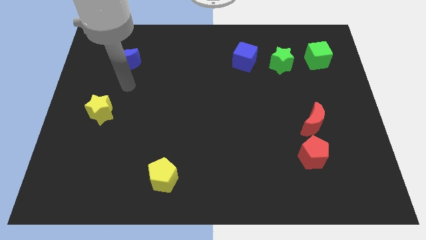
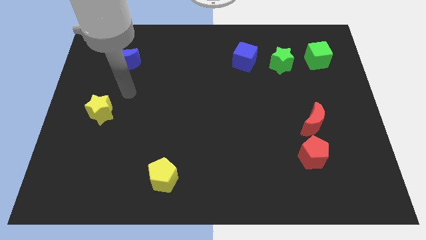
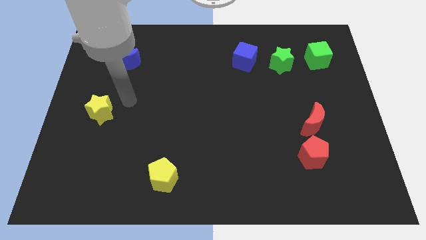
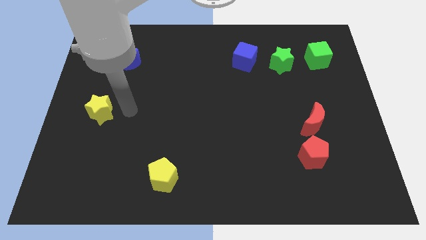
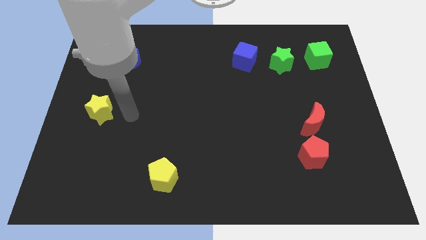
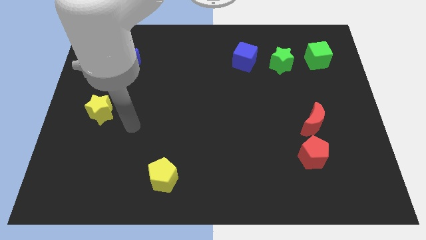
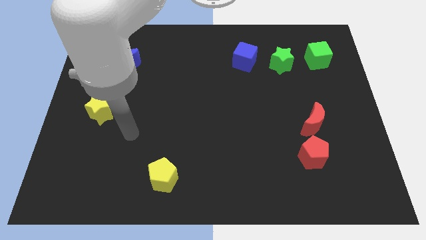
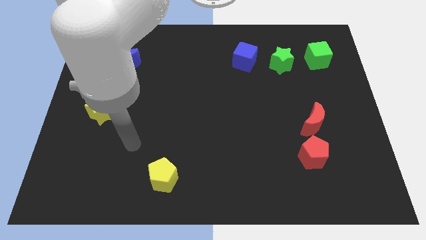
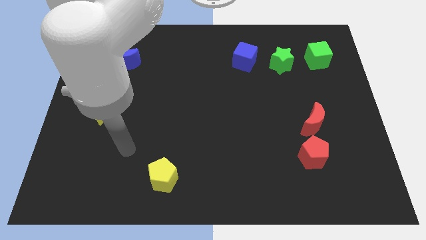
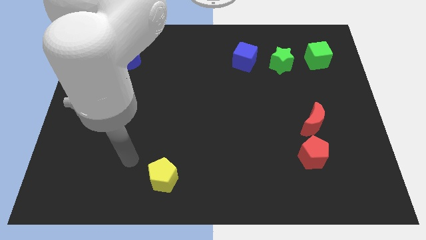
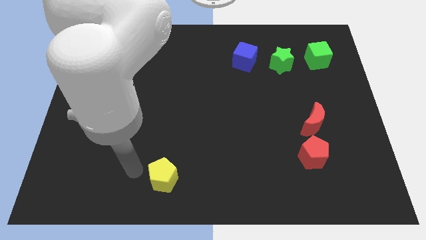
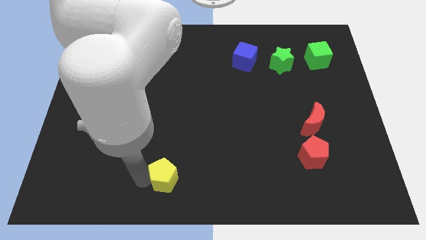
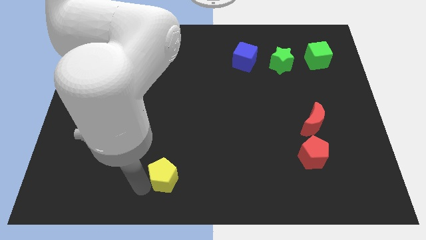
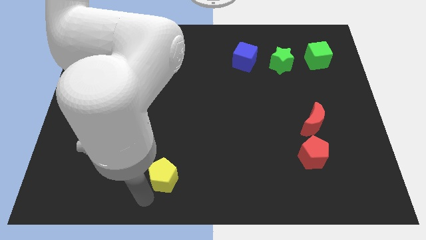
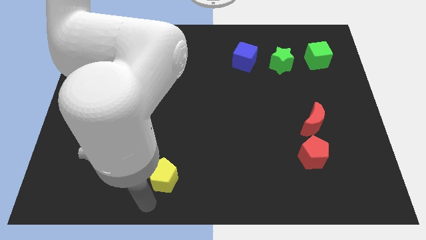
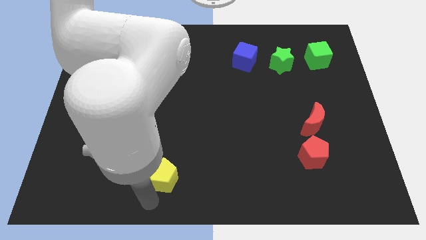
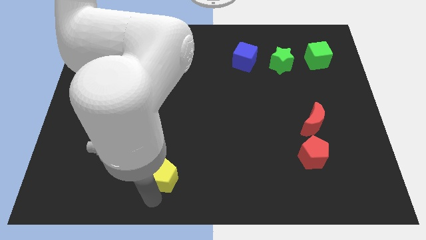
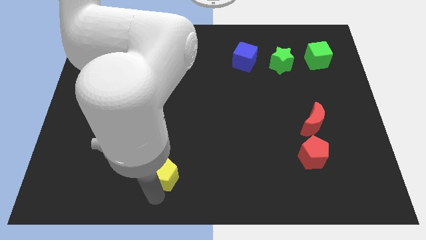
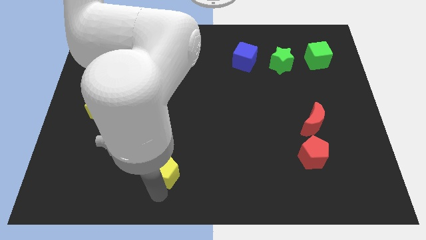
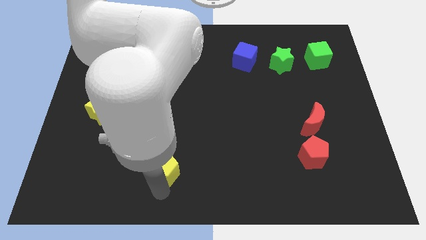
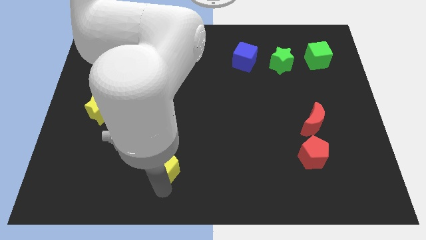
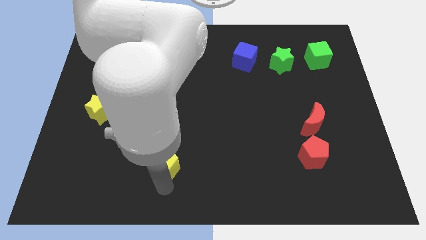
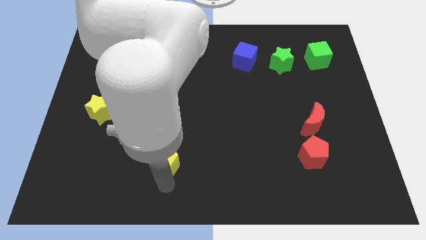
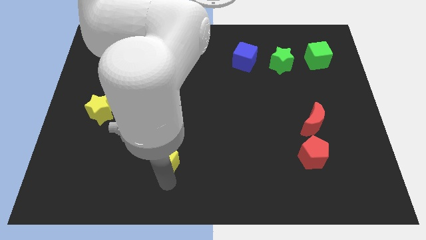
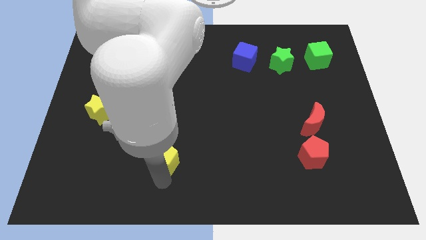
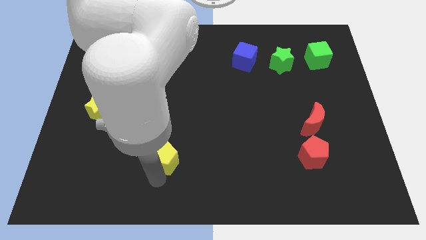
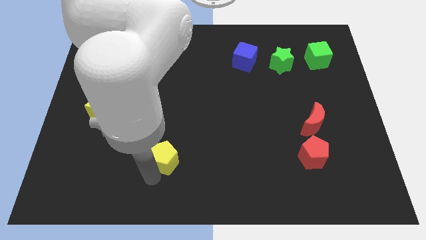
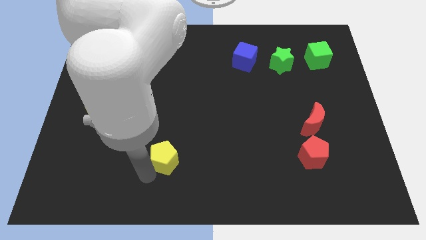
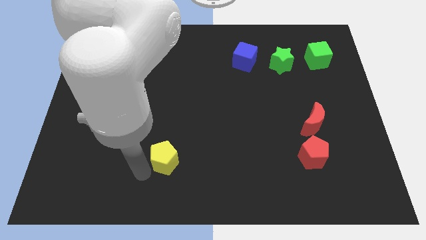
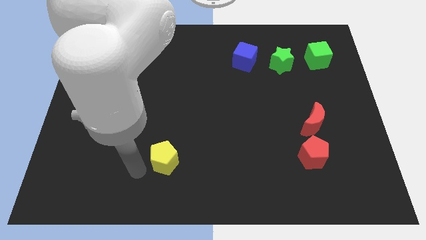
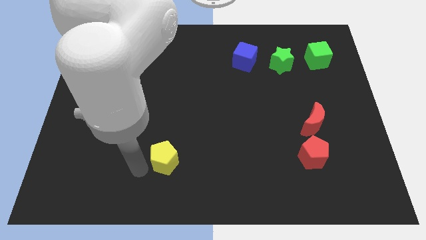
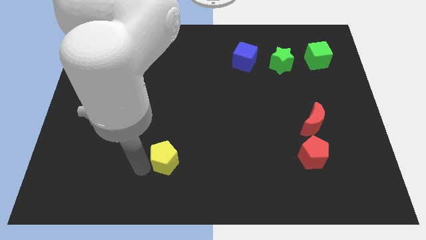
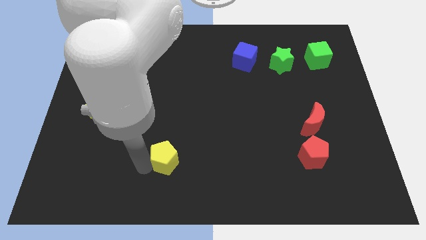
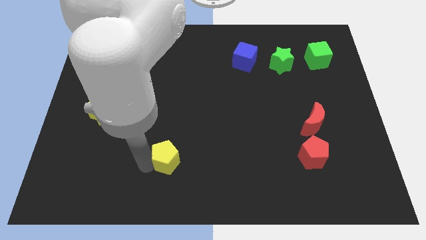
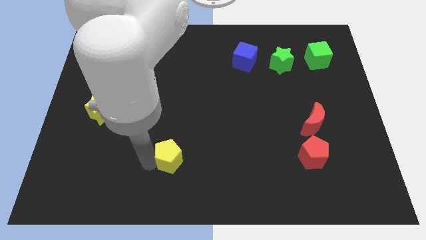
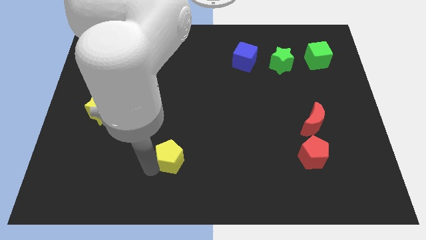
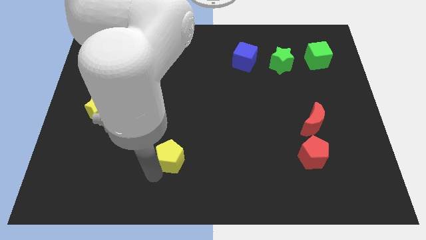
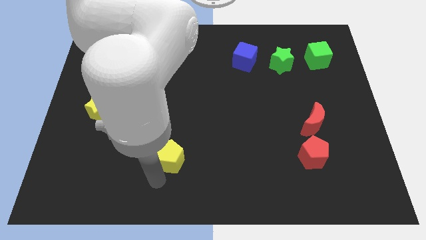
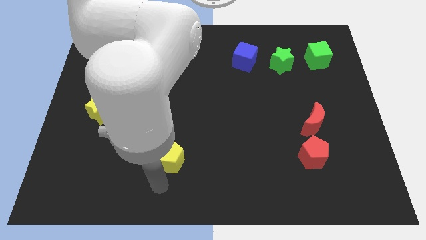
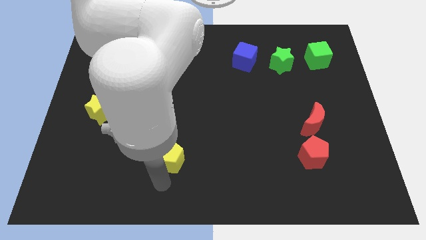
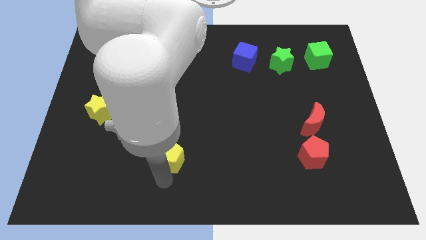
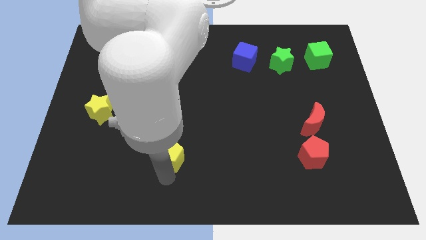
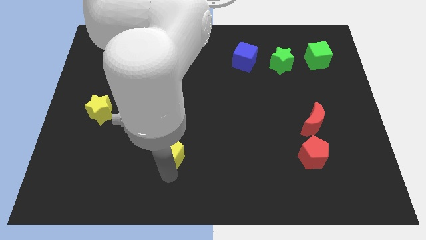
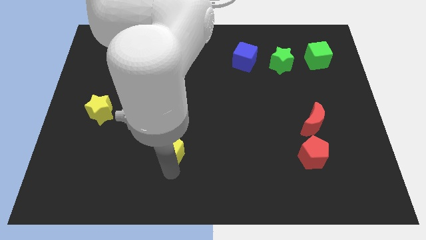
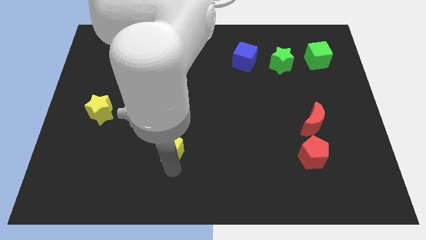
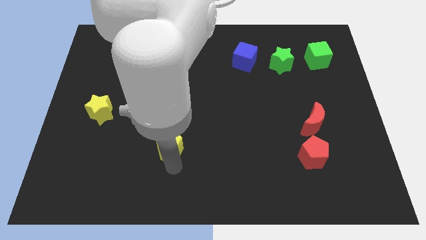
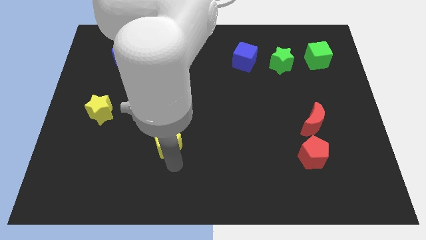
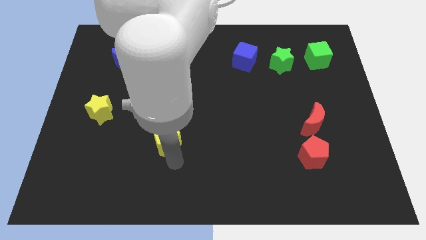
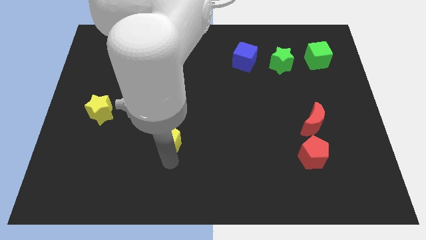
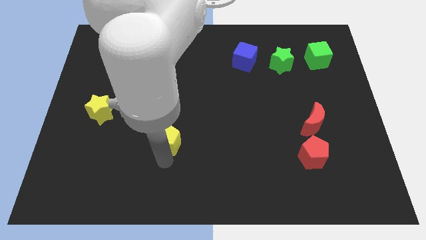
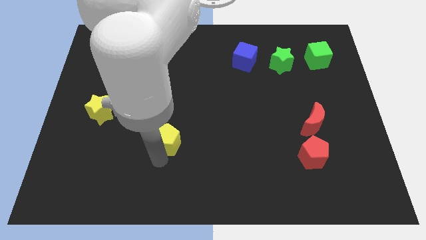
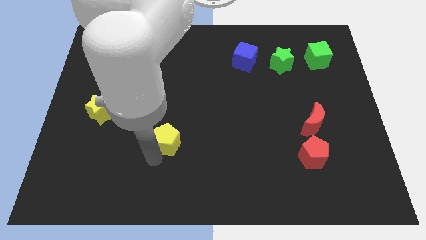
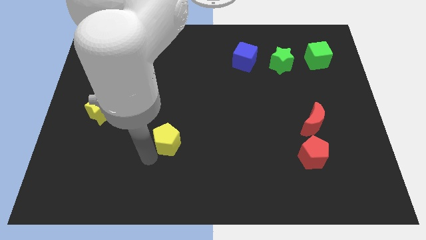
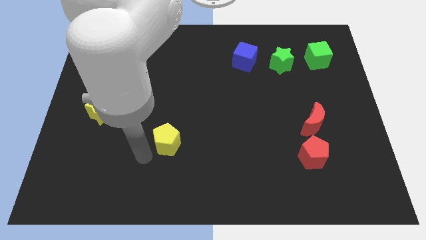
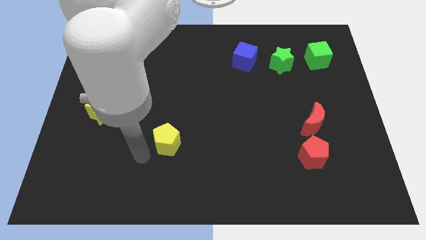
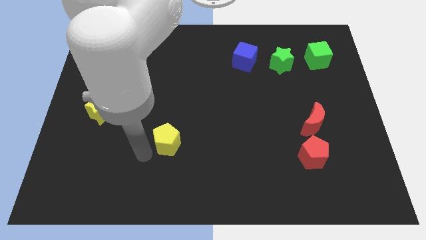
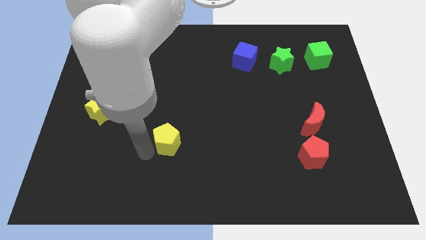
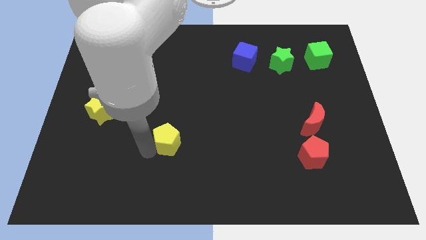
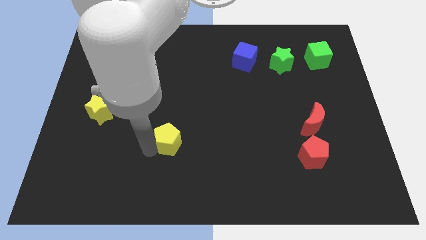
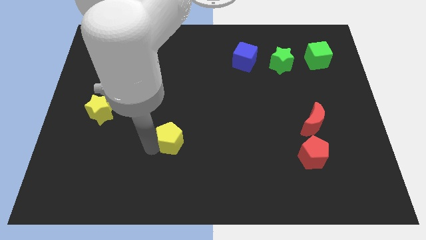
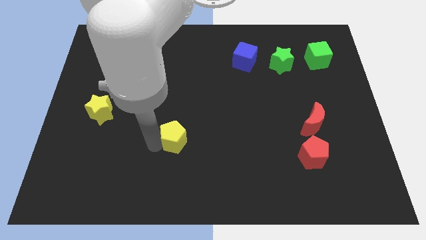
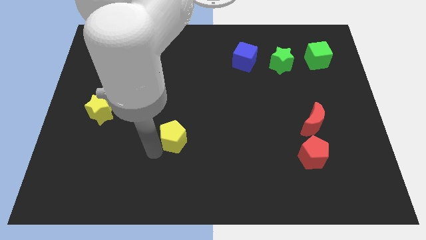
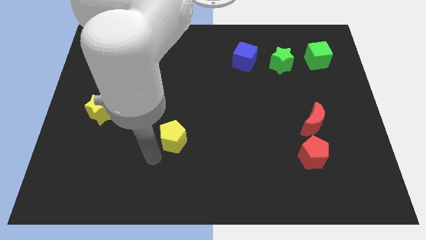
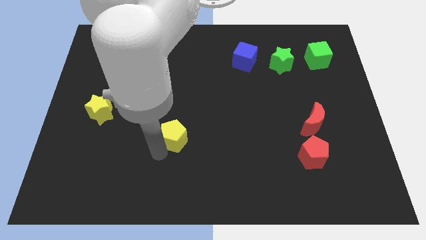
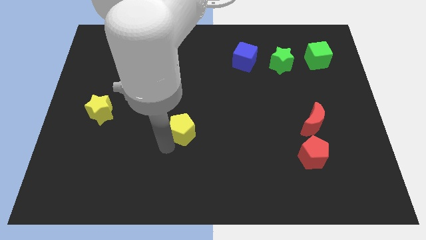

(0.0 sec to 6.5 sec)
slide the yellow pentagon to the middle of the board

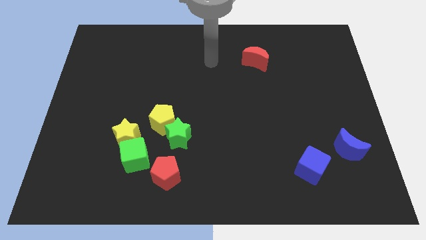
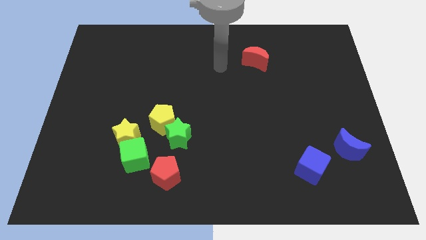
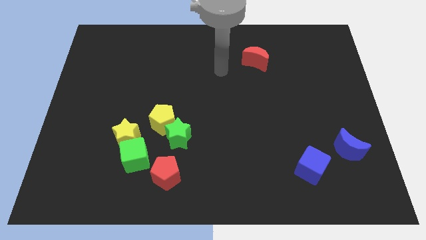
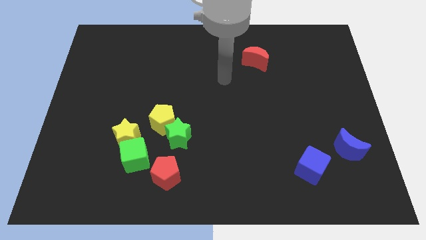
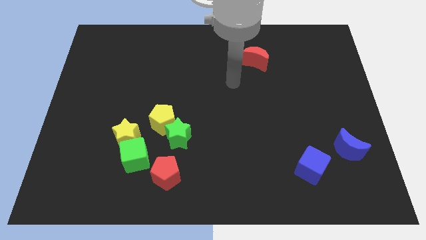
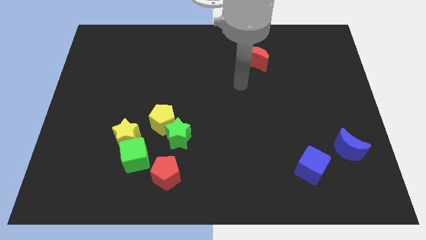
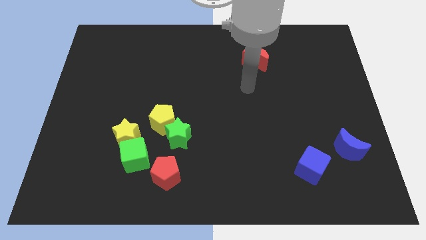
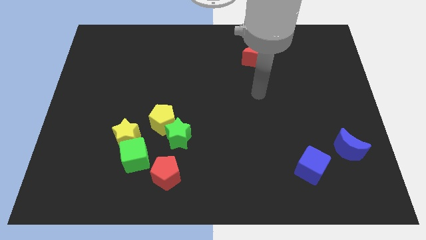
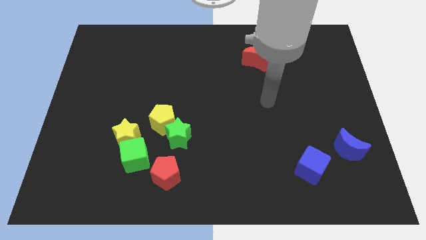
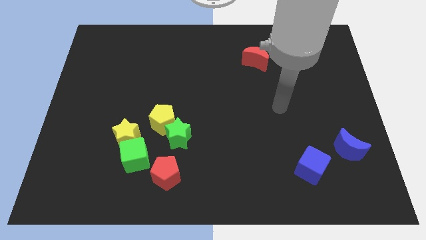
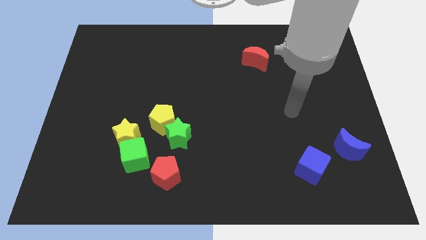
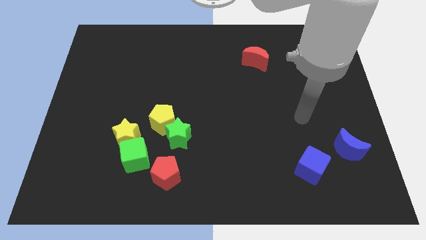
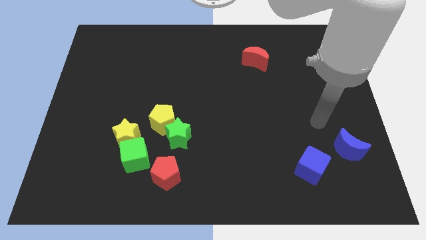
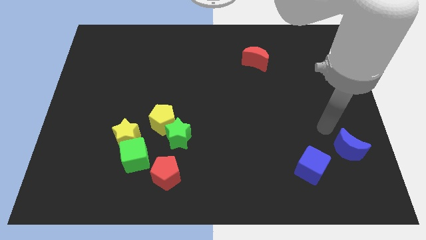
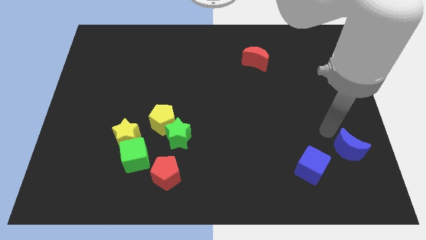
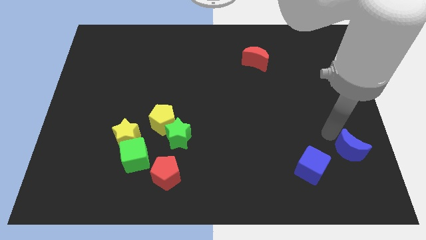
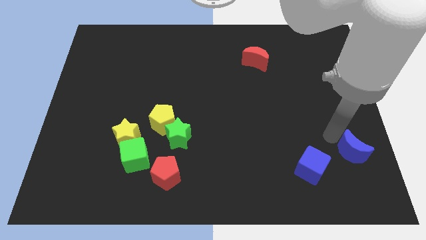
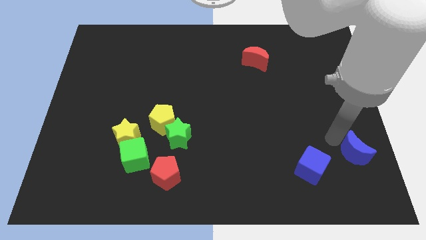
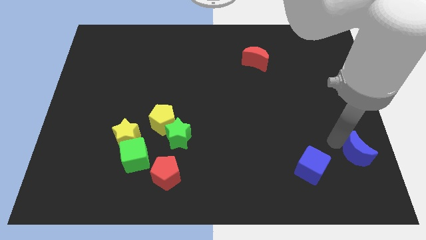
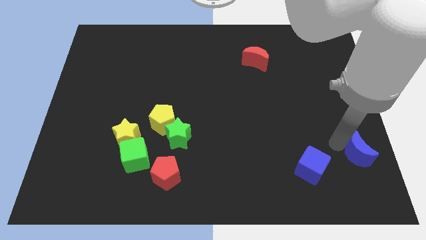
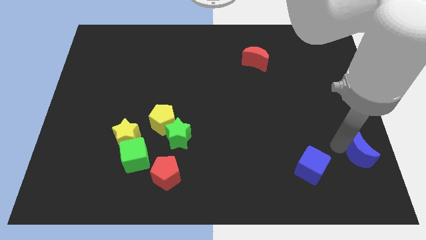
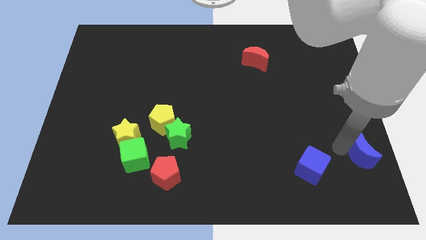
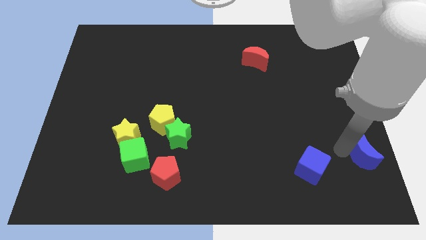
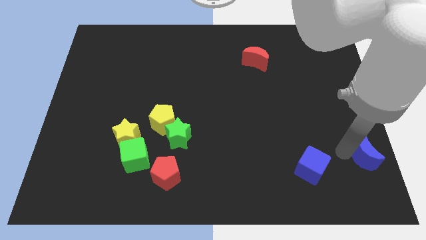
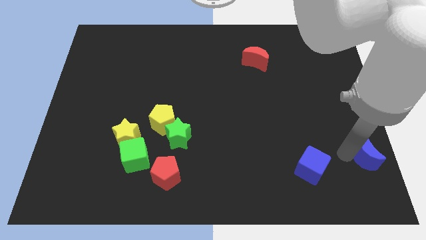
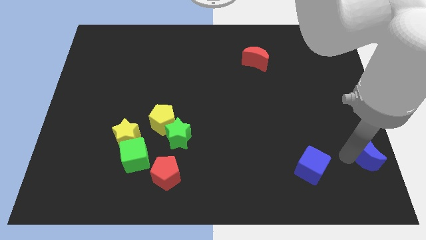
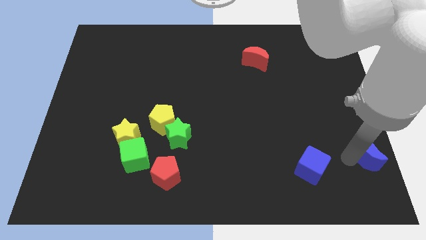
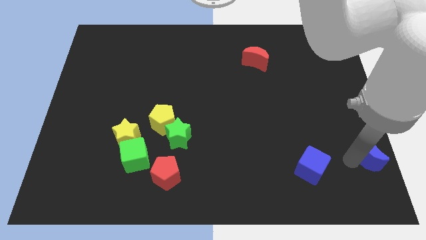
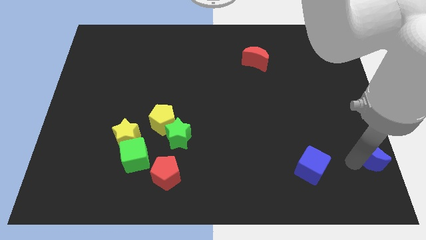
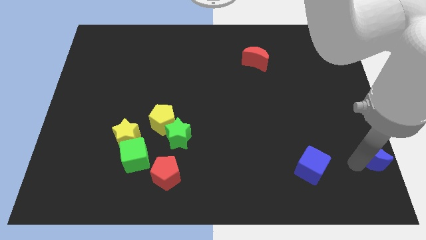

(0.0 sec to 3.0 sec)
put the blue moon to the bottom right of the board
